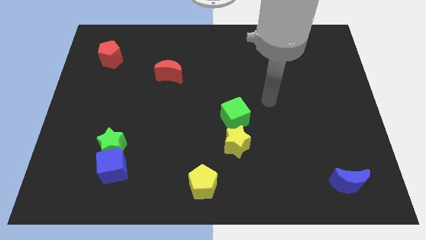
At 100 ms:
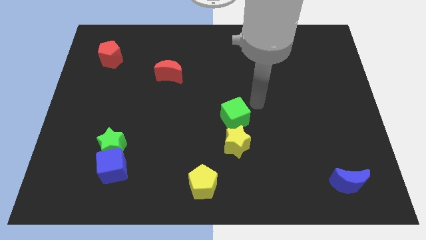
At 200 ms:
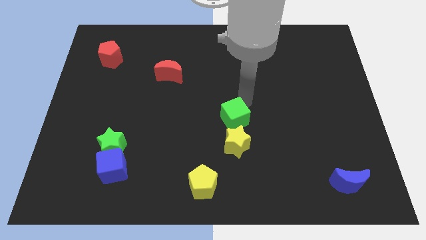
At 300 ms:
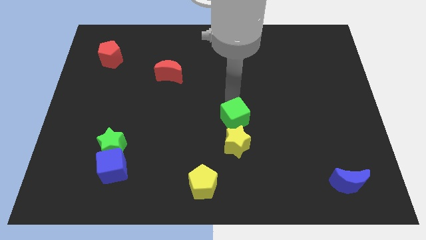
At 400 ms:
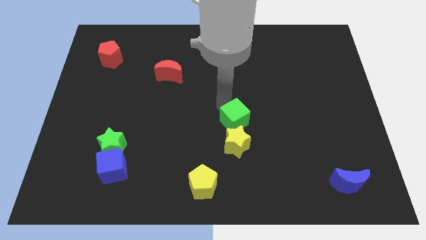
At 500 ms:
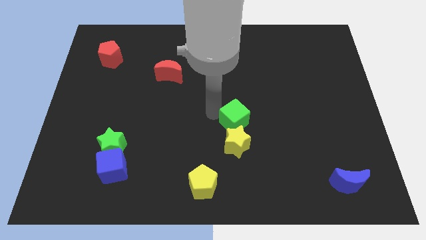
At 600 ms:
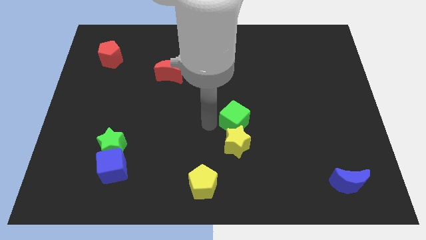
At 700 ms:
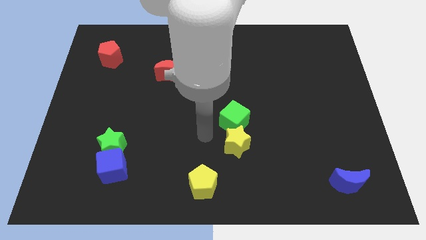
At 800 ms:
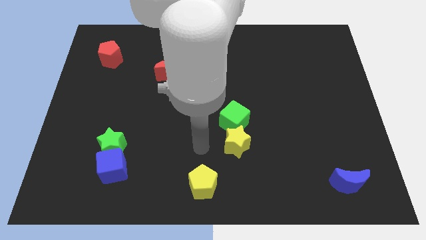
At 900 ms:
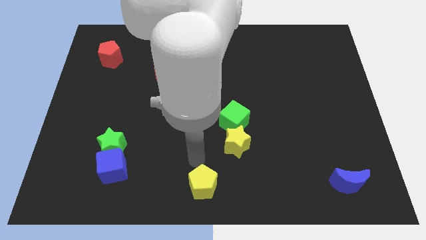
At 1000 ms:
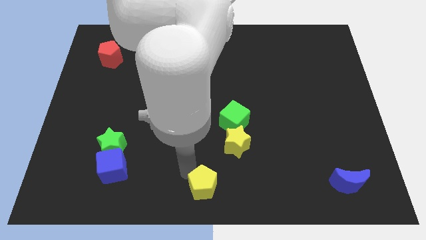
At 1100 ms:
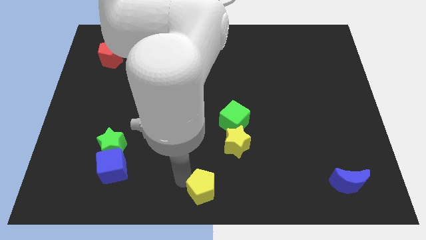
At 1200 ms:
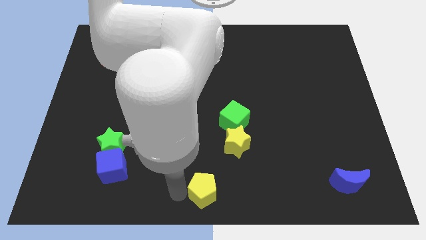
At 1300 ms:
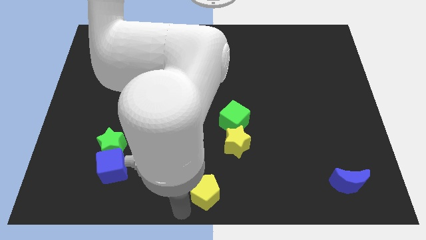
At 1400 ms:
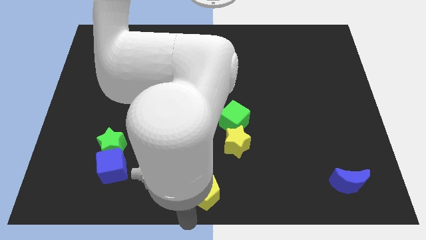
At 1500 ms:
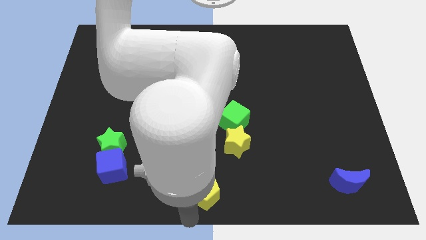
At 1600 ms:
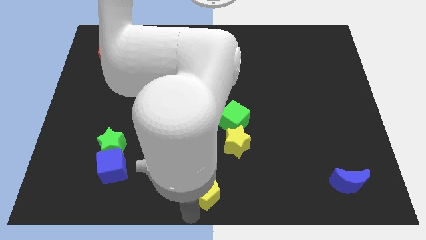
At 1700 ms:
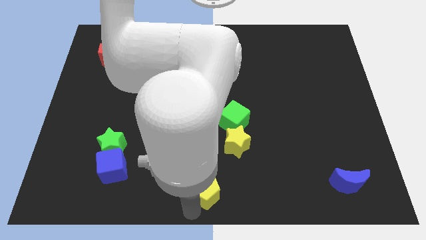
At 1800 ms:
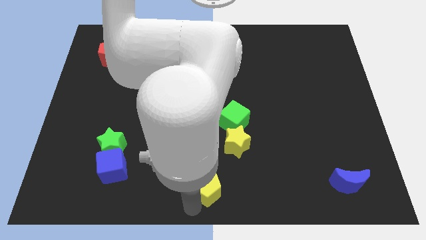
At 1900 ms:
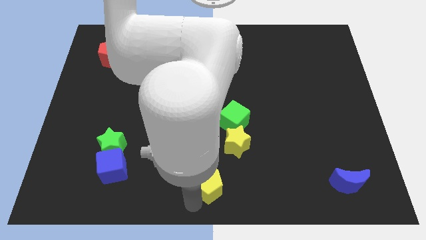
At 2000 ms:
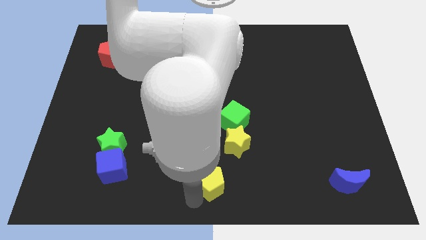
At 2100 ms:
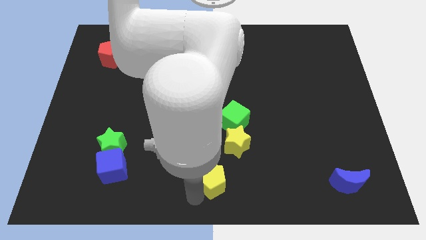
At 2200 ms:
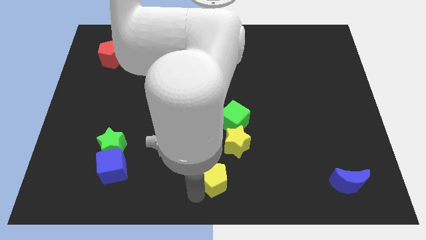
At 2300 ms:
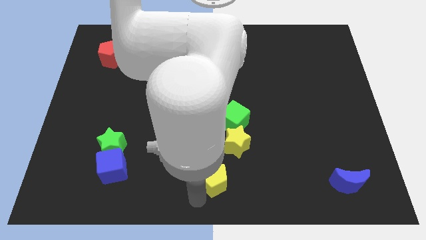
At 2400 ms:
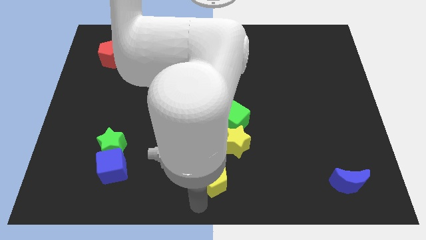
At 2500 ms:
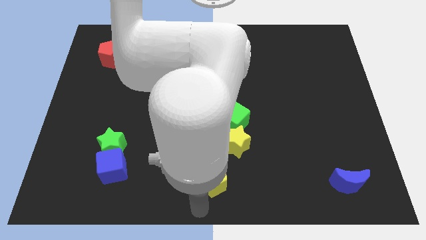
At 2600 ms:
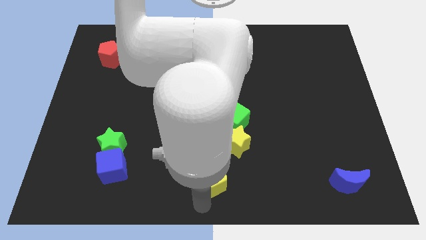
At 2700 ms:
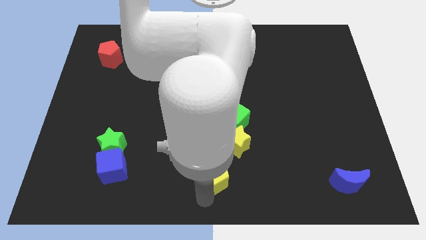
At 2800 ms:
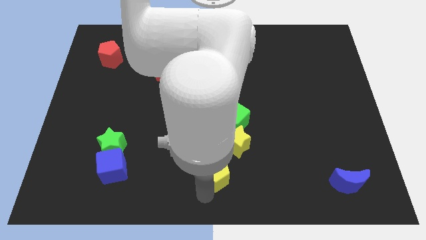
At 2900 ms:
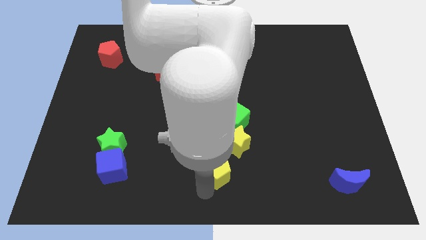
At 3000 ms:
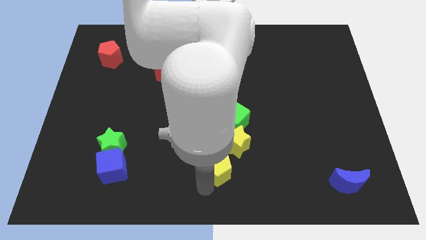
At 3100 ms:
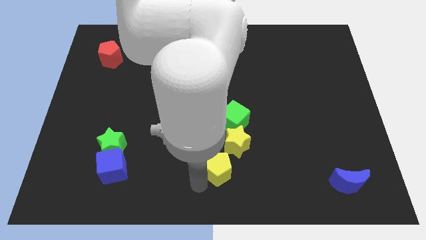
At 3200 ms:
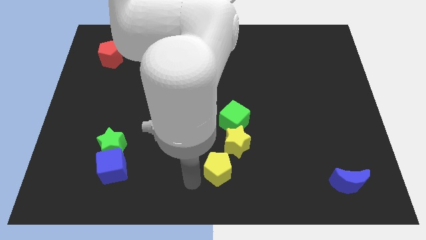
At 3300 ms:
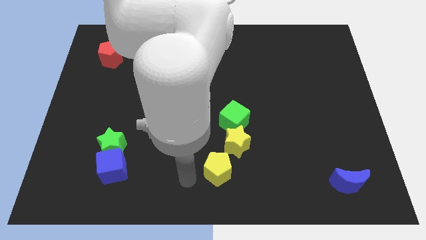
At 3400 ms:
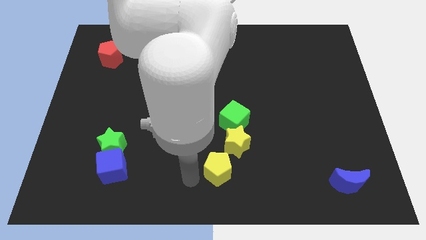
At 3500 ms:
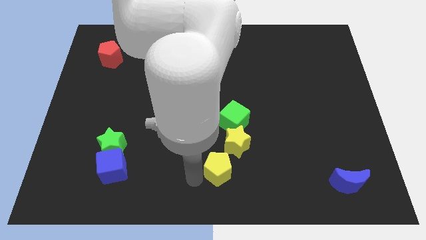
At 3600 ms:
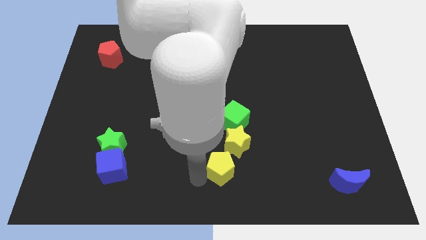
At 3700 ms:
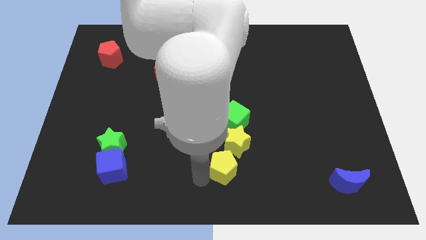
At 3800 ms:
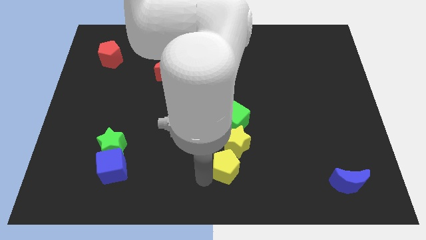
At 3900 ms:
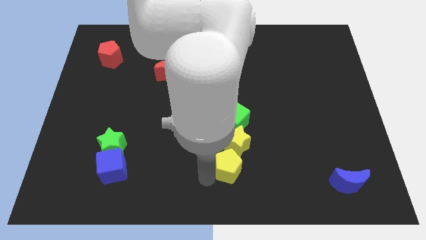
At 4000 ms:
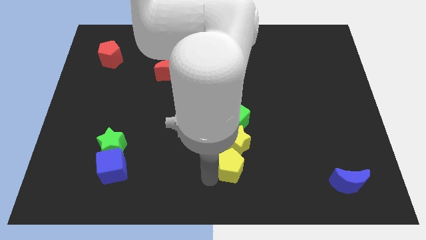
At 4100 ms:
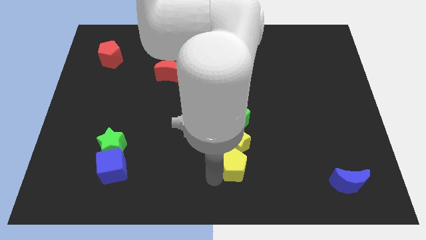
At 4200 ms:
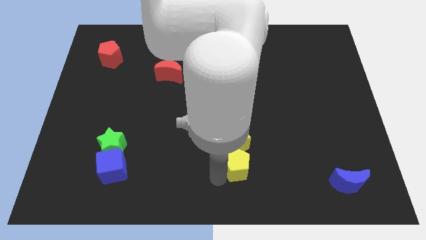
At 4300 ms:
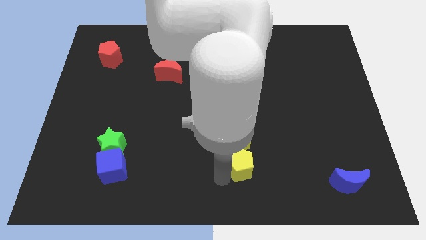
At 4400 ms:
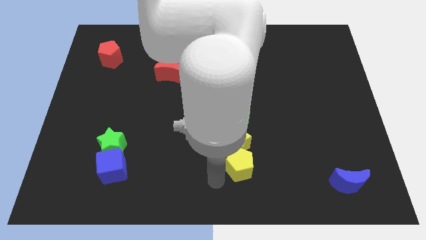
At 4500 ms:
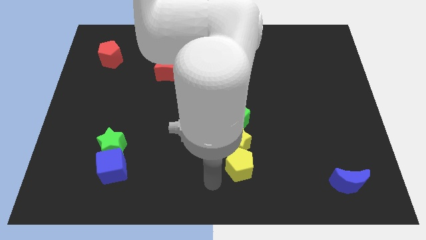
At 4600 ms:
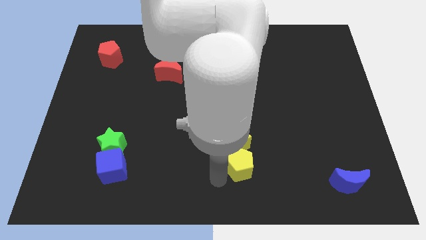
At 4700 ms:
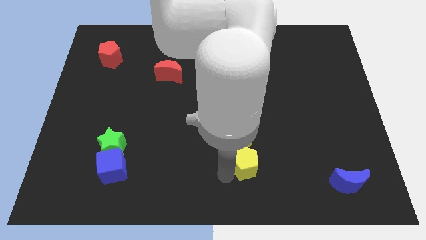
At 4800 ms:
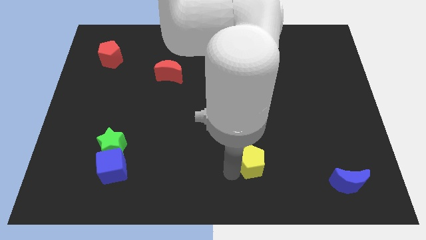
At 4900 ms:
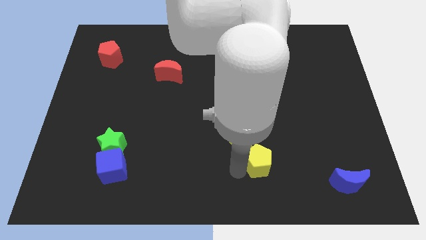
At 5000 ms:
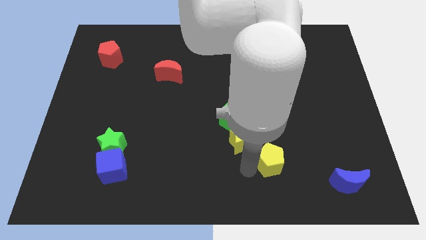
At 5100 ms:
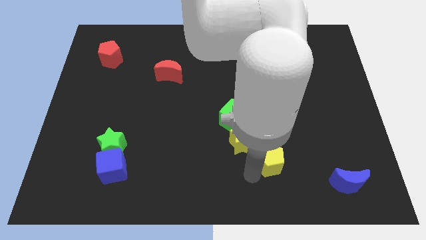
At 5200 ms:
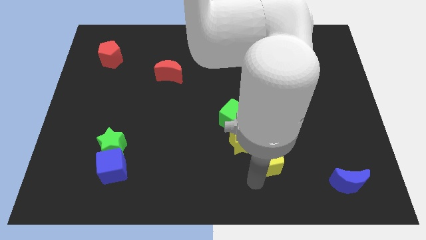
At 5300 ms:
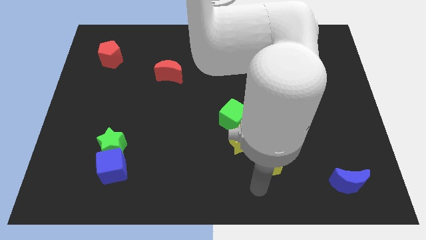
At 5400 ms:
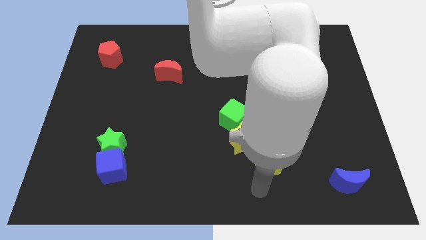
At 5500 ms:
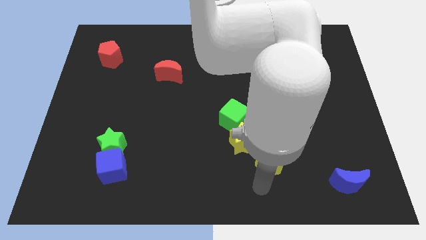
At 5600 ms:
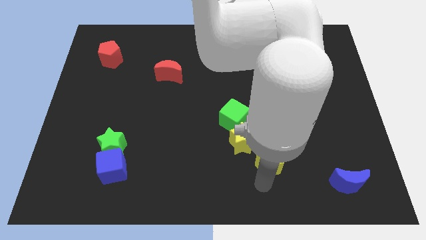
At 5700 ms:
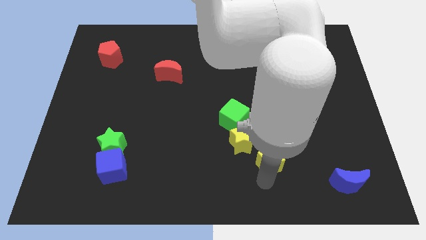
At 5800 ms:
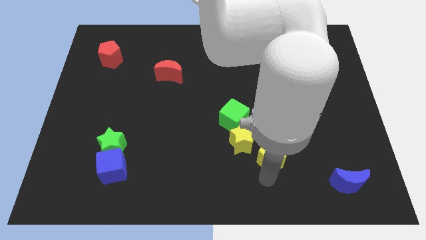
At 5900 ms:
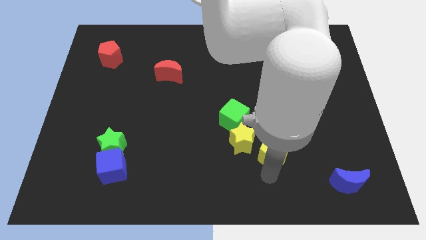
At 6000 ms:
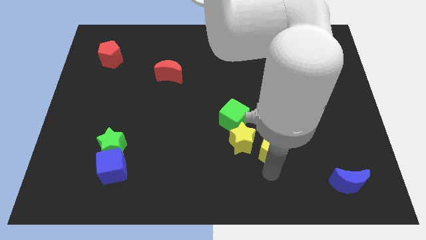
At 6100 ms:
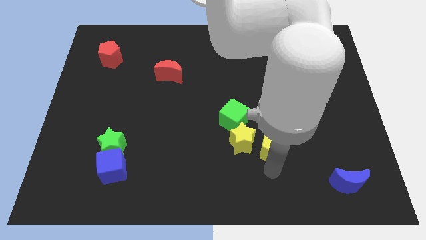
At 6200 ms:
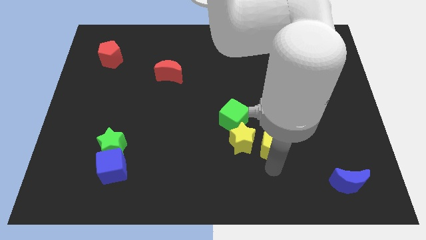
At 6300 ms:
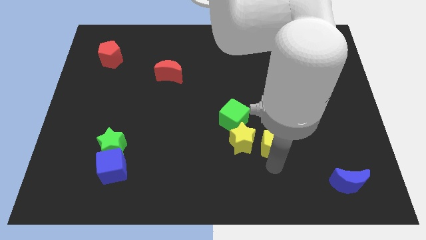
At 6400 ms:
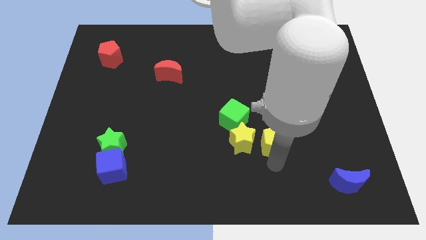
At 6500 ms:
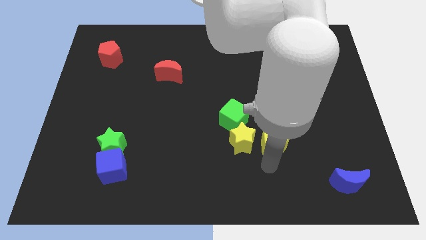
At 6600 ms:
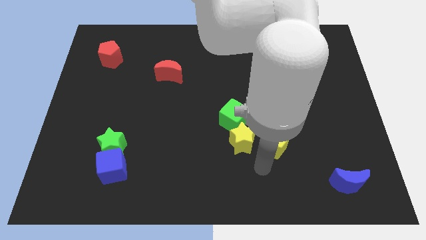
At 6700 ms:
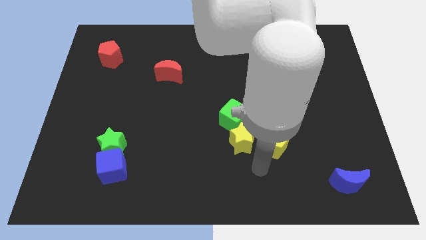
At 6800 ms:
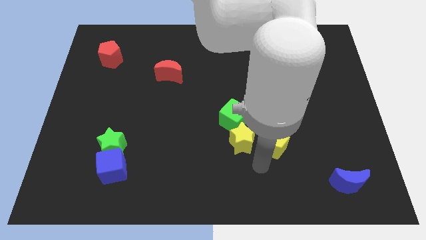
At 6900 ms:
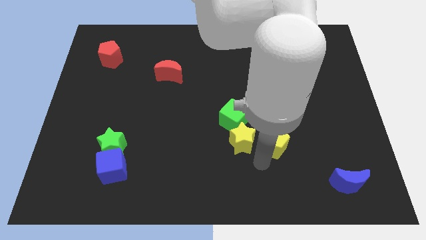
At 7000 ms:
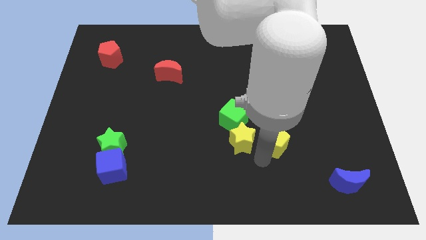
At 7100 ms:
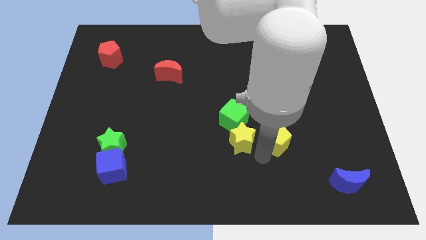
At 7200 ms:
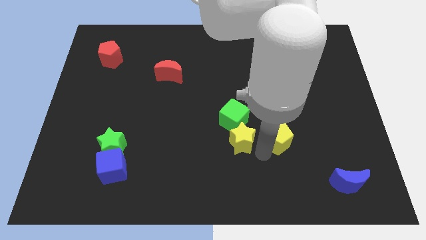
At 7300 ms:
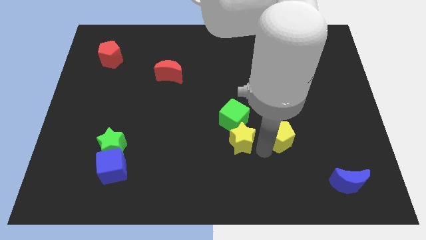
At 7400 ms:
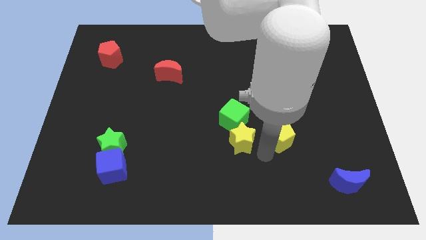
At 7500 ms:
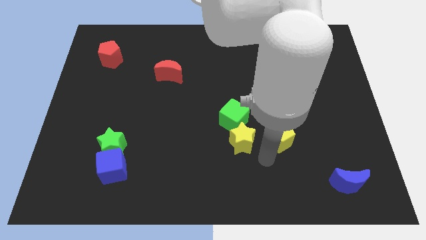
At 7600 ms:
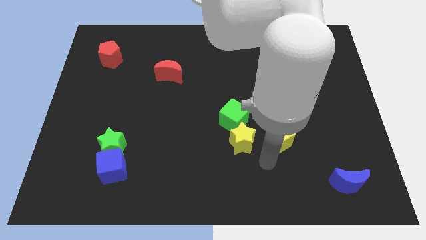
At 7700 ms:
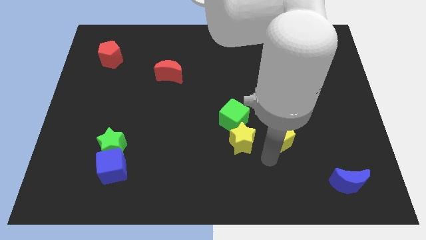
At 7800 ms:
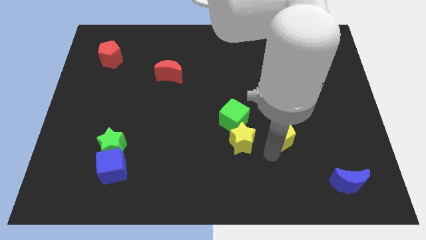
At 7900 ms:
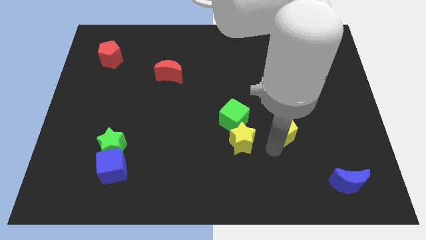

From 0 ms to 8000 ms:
move the yellow pentagon up and to the right
